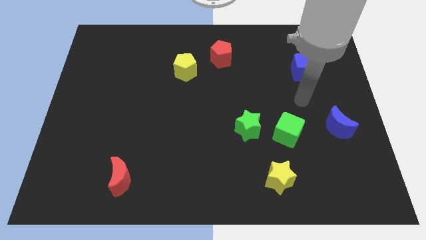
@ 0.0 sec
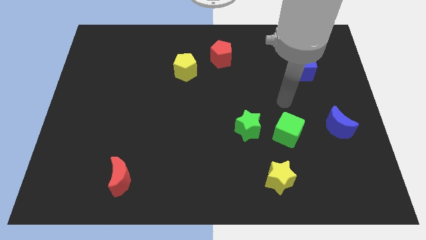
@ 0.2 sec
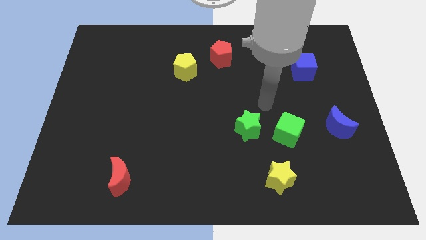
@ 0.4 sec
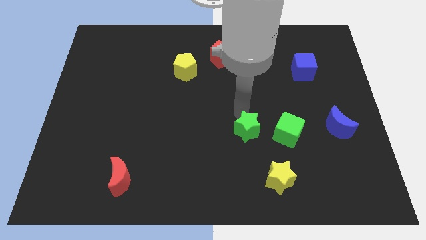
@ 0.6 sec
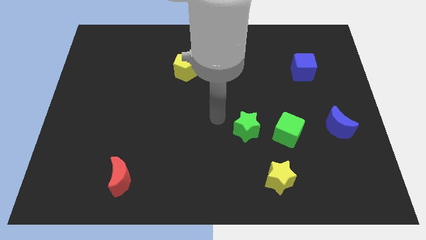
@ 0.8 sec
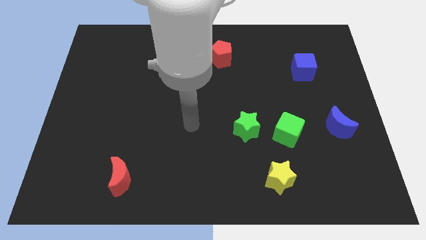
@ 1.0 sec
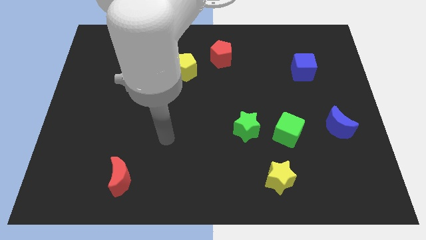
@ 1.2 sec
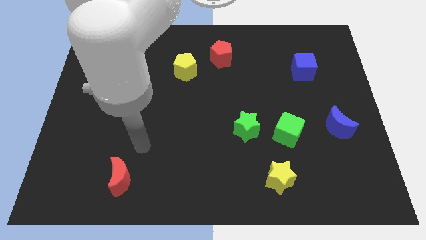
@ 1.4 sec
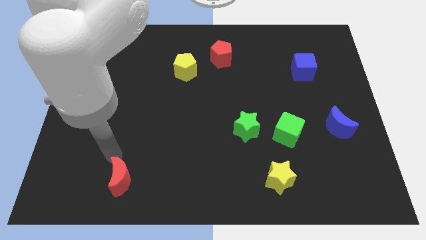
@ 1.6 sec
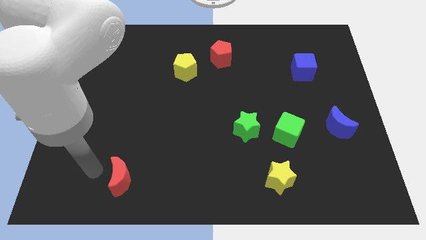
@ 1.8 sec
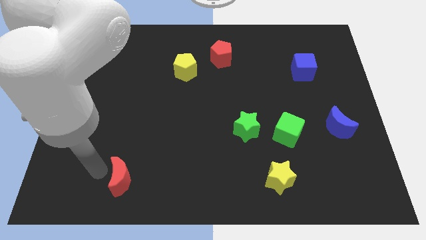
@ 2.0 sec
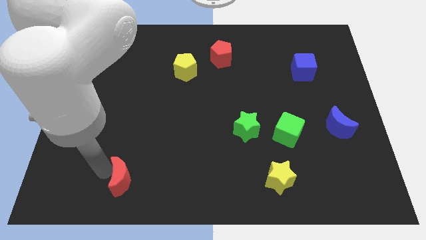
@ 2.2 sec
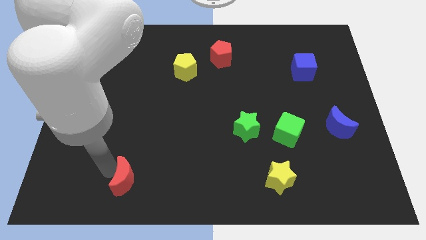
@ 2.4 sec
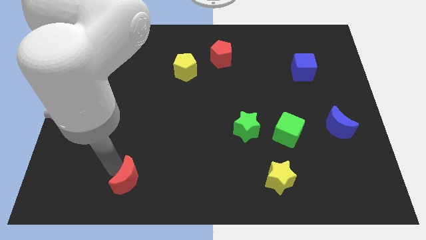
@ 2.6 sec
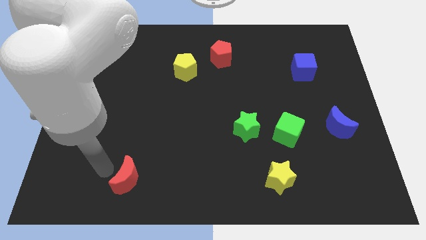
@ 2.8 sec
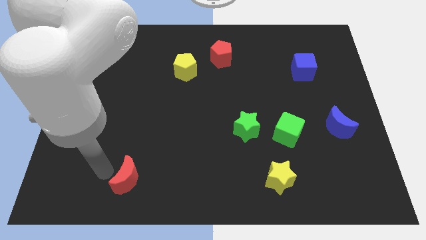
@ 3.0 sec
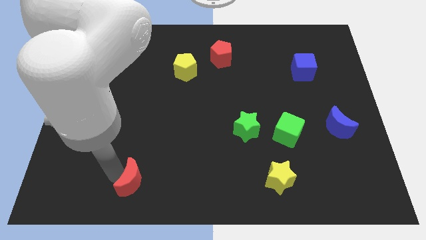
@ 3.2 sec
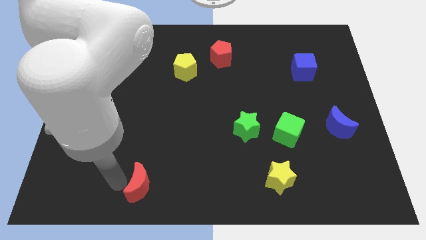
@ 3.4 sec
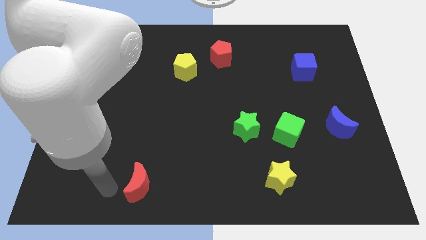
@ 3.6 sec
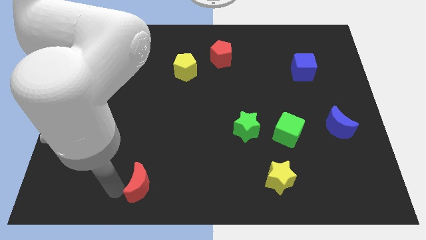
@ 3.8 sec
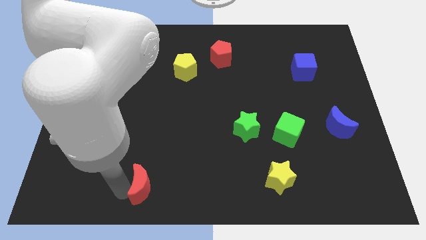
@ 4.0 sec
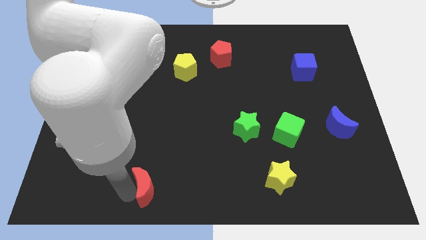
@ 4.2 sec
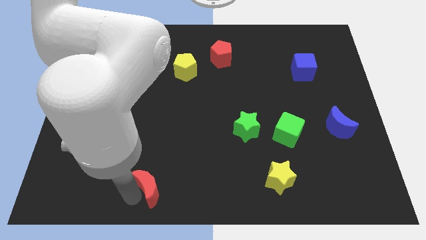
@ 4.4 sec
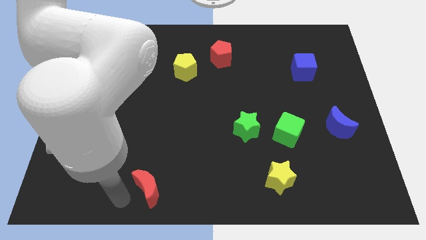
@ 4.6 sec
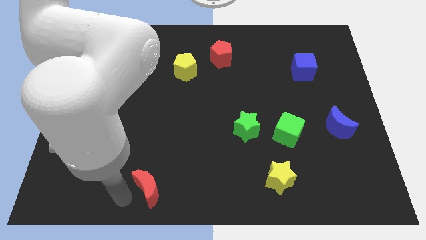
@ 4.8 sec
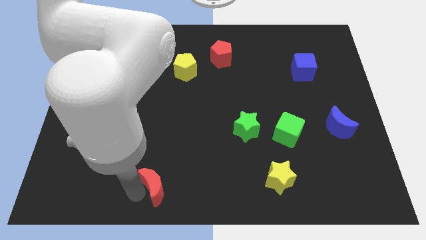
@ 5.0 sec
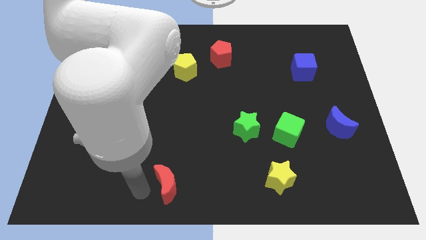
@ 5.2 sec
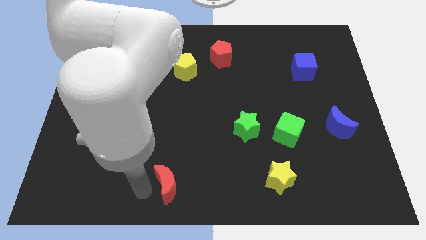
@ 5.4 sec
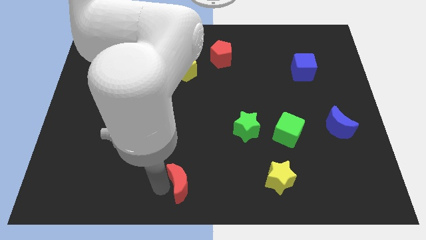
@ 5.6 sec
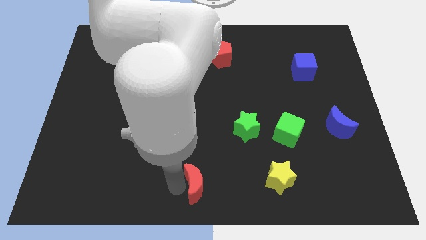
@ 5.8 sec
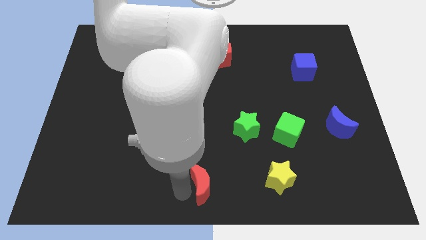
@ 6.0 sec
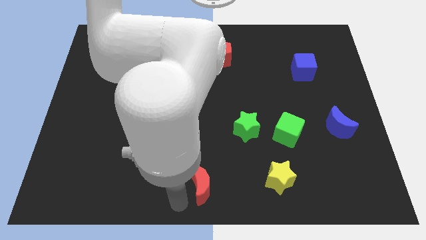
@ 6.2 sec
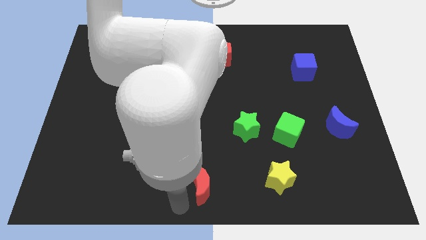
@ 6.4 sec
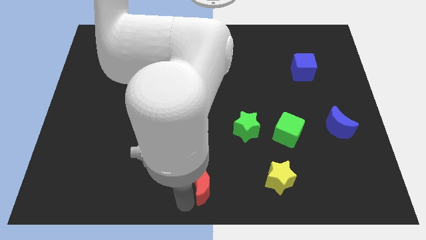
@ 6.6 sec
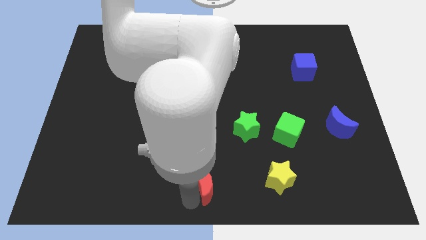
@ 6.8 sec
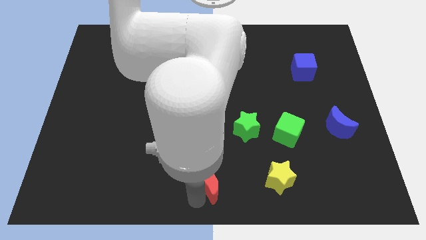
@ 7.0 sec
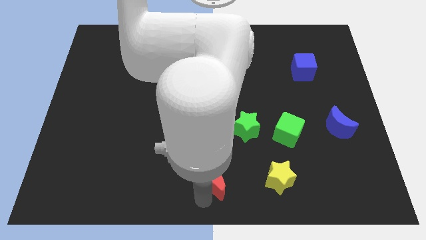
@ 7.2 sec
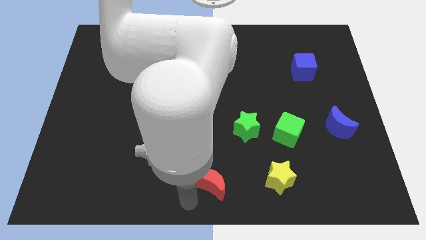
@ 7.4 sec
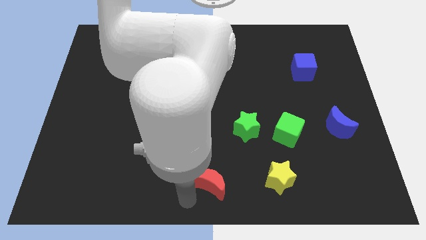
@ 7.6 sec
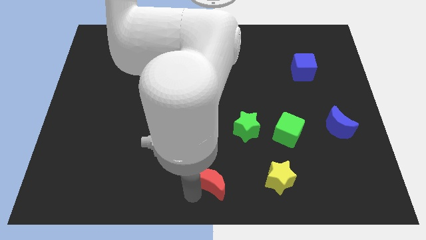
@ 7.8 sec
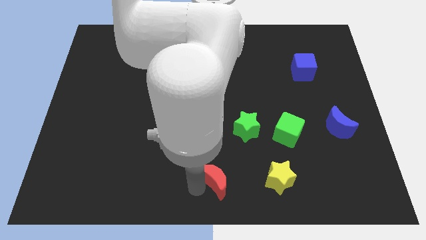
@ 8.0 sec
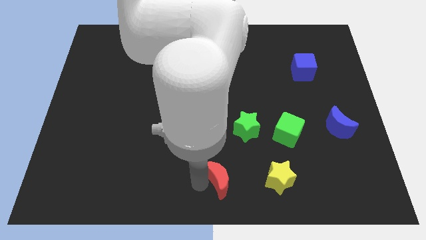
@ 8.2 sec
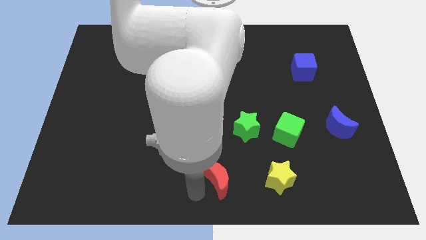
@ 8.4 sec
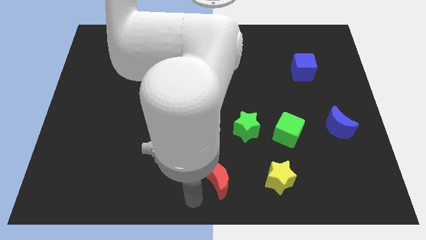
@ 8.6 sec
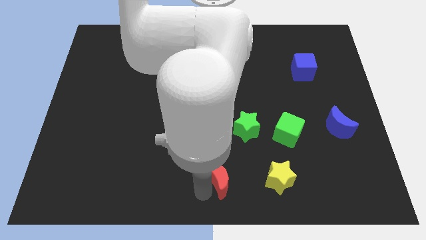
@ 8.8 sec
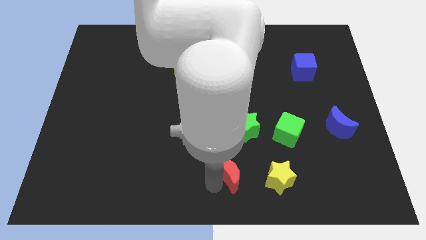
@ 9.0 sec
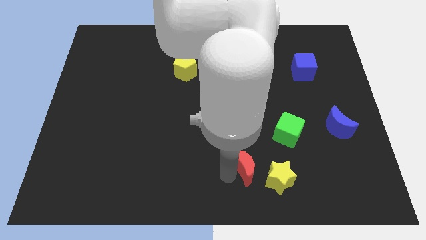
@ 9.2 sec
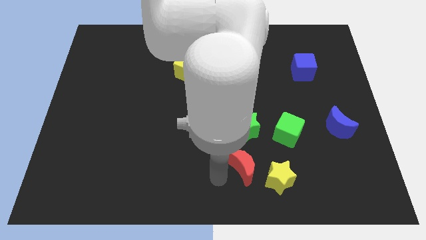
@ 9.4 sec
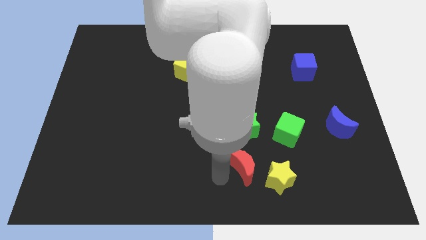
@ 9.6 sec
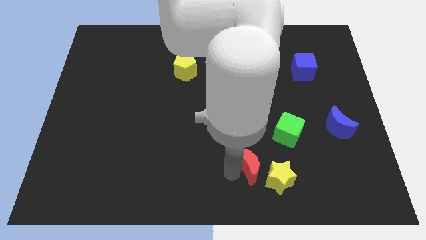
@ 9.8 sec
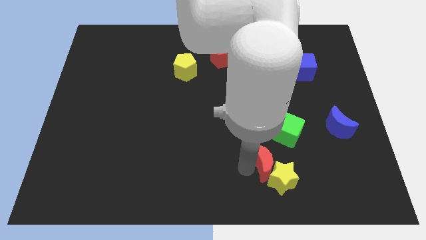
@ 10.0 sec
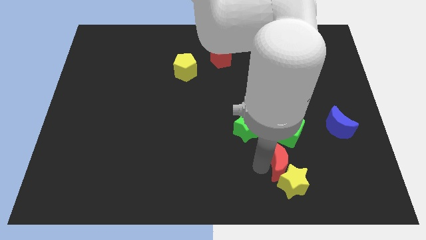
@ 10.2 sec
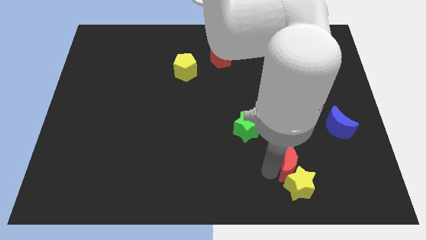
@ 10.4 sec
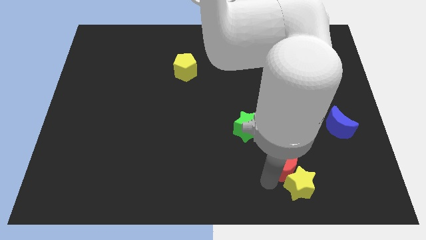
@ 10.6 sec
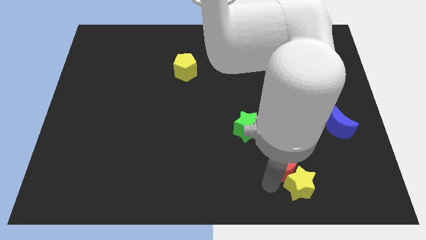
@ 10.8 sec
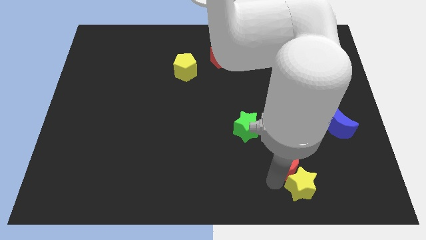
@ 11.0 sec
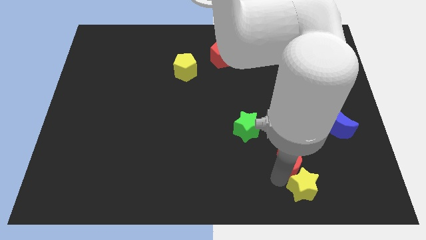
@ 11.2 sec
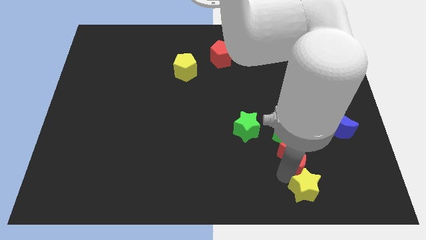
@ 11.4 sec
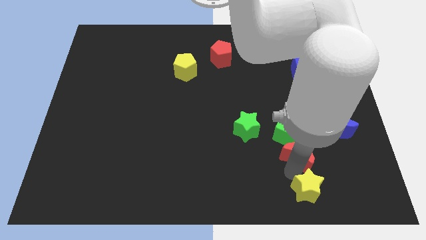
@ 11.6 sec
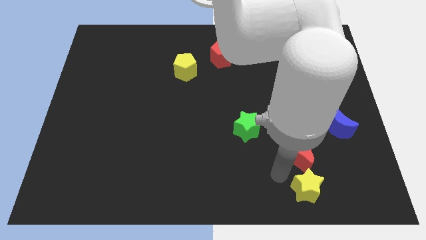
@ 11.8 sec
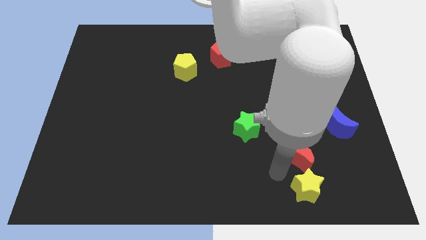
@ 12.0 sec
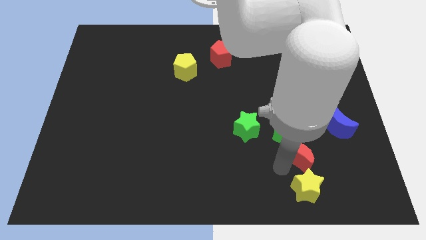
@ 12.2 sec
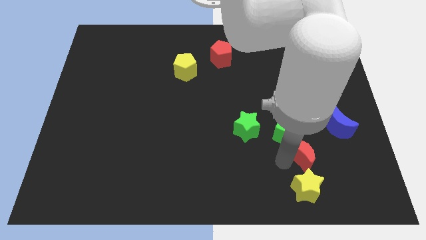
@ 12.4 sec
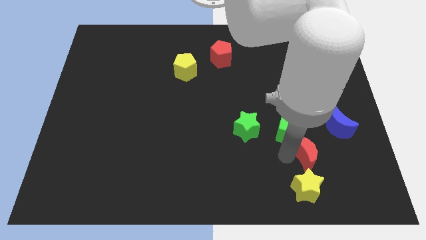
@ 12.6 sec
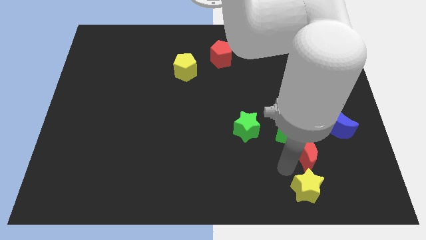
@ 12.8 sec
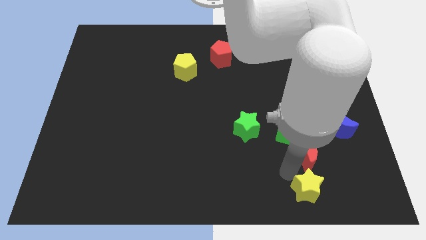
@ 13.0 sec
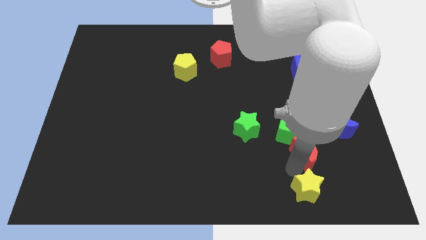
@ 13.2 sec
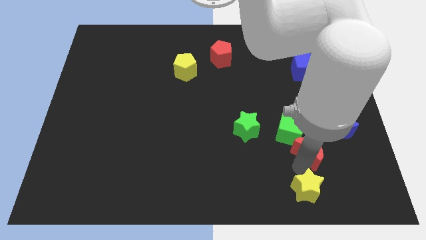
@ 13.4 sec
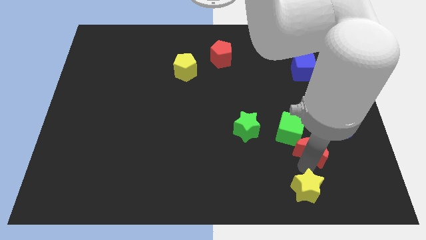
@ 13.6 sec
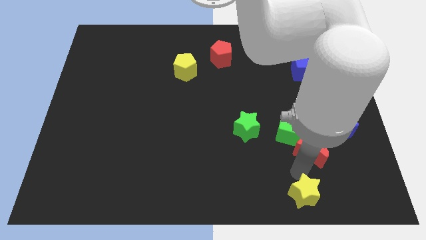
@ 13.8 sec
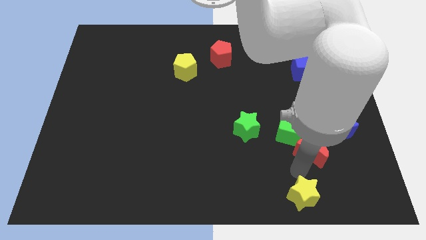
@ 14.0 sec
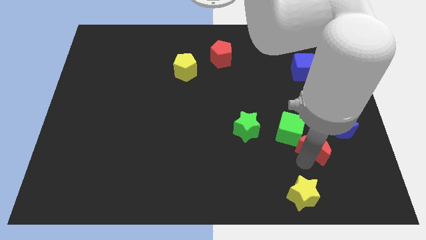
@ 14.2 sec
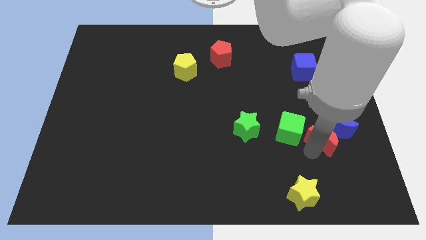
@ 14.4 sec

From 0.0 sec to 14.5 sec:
move the red moon close to the blue moon

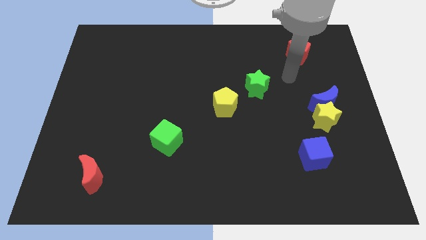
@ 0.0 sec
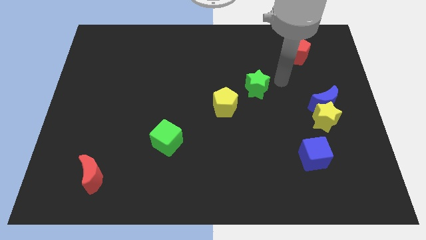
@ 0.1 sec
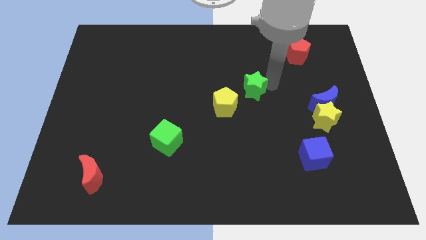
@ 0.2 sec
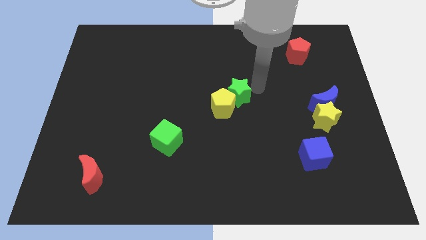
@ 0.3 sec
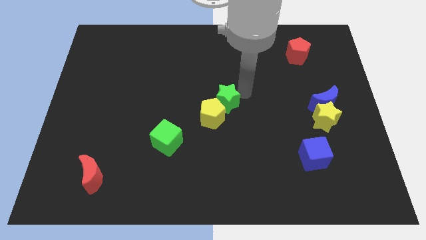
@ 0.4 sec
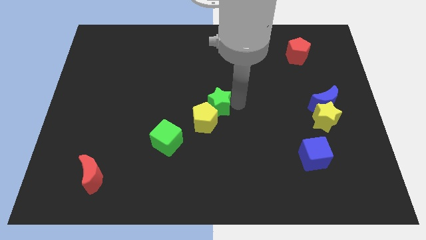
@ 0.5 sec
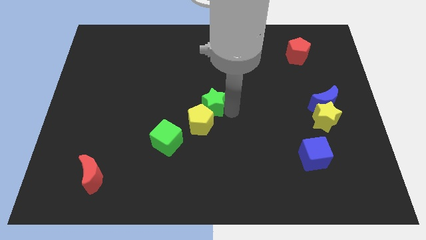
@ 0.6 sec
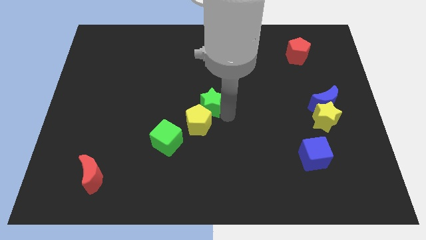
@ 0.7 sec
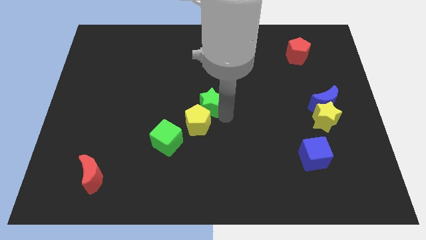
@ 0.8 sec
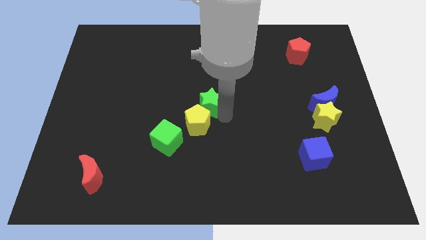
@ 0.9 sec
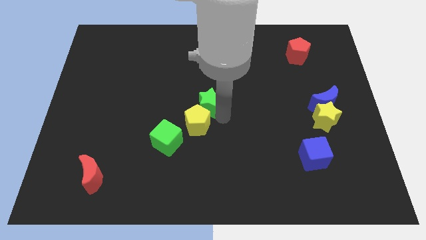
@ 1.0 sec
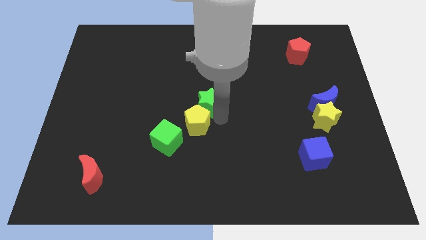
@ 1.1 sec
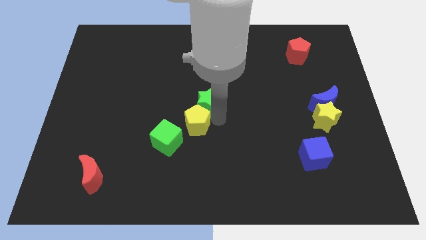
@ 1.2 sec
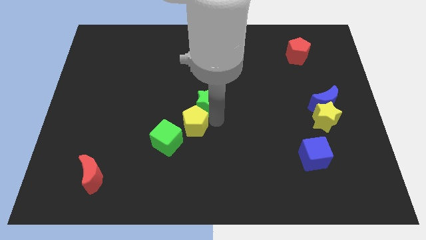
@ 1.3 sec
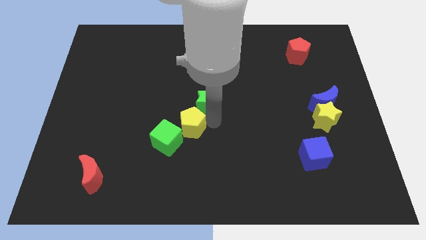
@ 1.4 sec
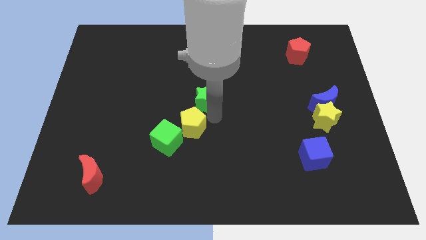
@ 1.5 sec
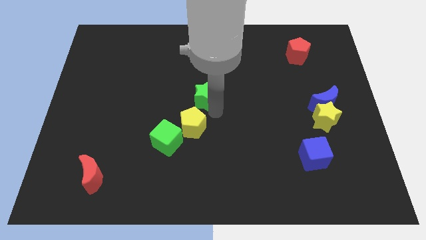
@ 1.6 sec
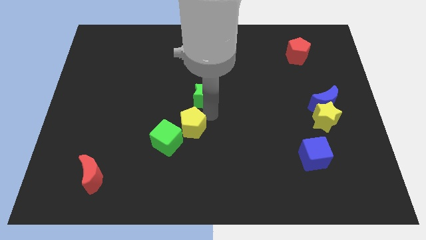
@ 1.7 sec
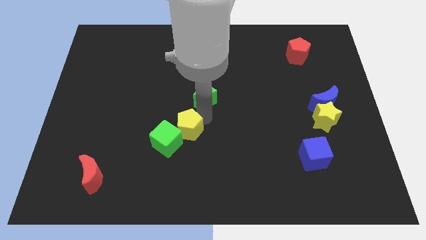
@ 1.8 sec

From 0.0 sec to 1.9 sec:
move the yellow pentagon to the green cube
